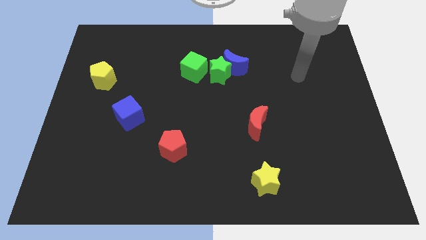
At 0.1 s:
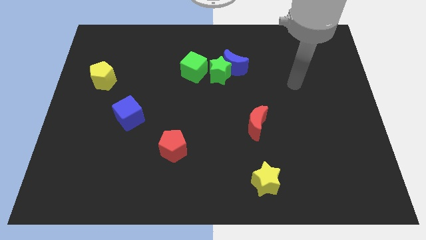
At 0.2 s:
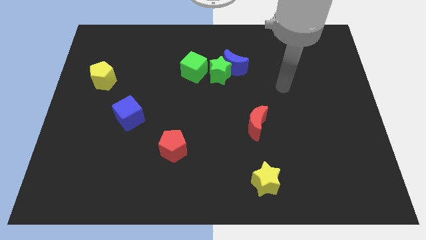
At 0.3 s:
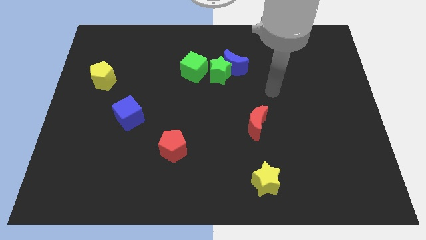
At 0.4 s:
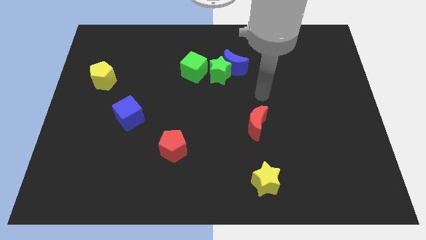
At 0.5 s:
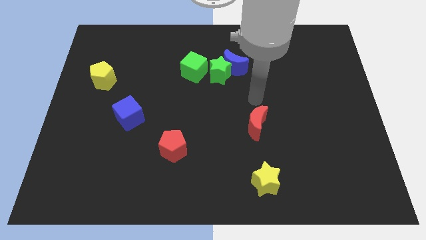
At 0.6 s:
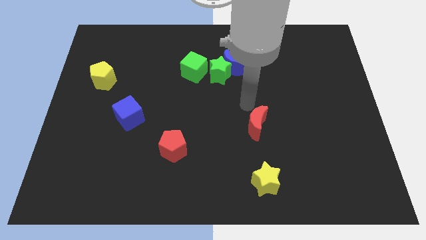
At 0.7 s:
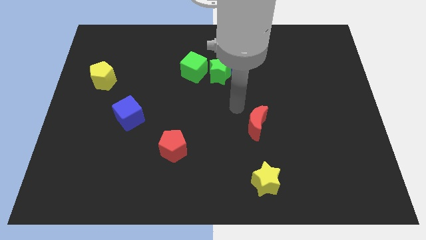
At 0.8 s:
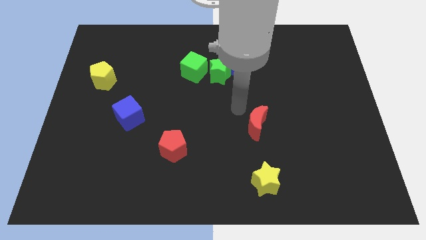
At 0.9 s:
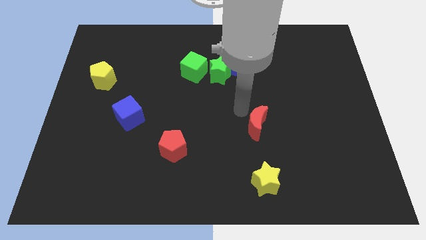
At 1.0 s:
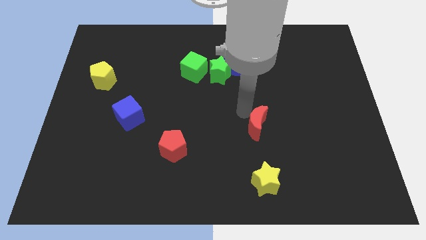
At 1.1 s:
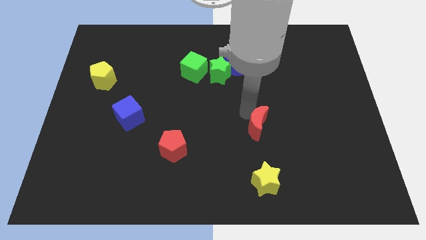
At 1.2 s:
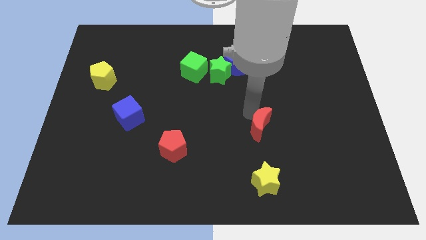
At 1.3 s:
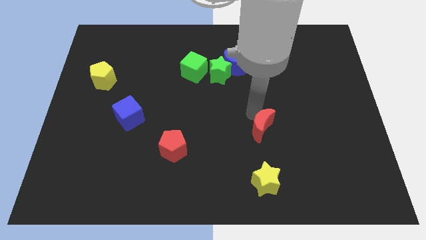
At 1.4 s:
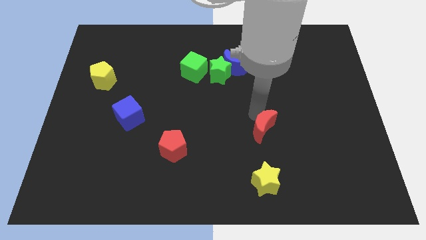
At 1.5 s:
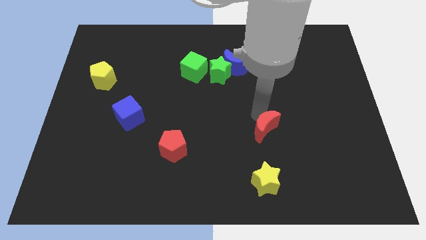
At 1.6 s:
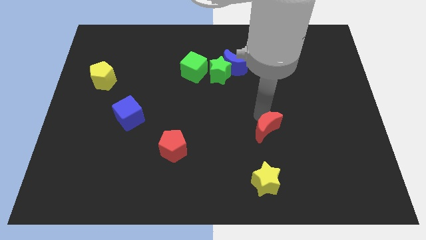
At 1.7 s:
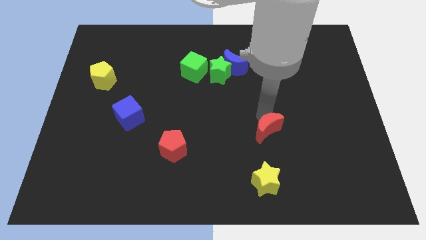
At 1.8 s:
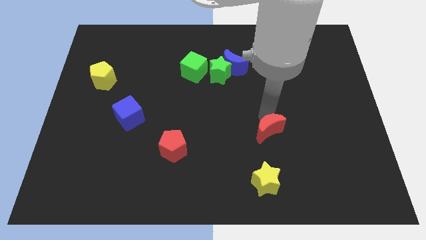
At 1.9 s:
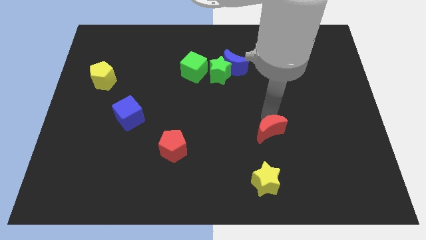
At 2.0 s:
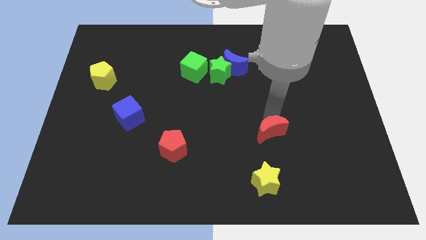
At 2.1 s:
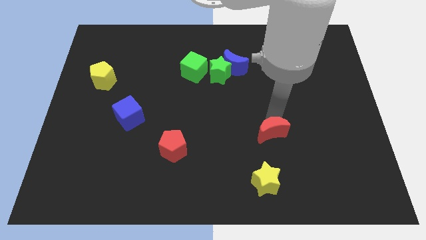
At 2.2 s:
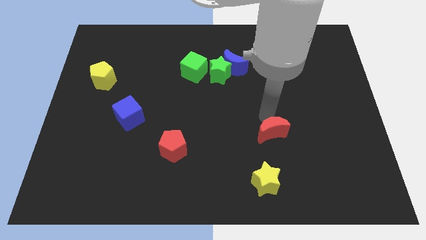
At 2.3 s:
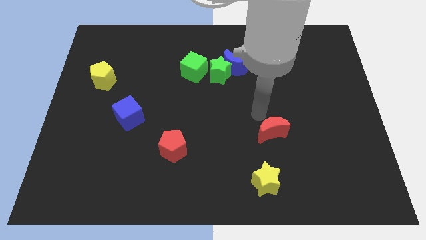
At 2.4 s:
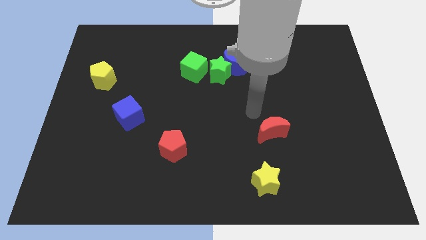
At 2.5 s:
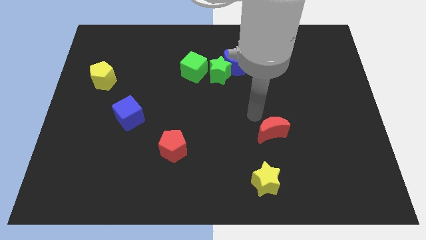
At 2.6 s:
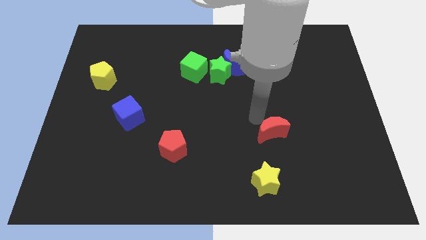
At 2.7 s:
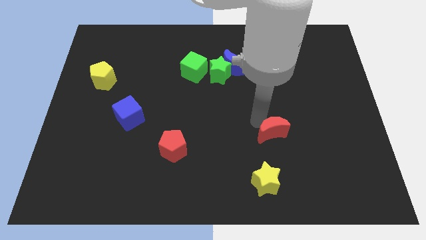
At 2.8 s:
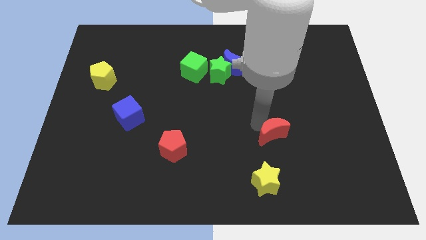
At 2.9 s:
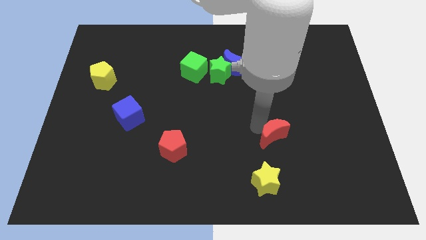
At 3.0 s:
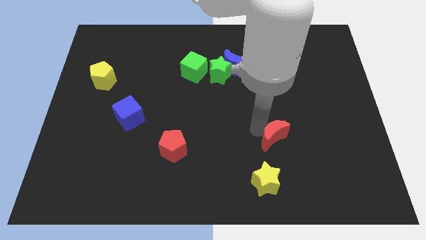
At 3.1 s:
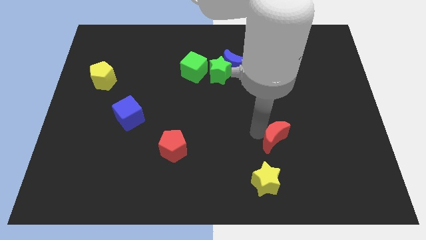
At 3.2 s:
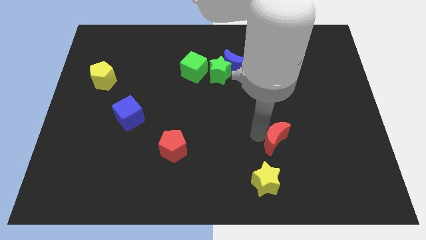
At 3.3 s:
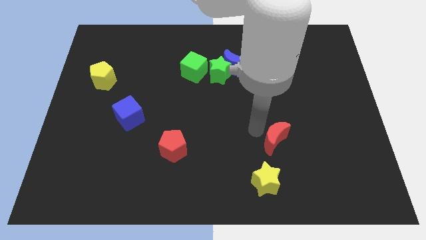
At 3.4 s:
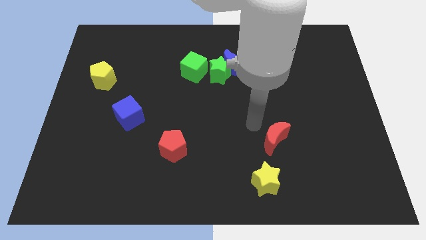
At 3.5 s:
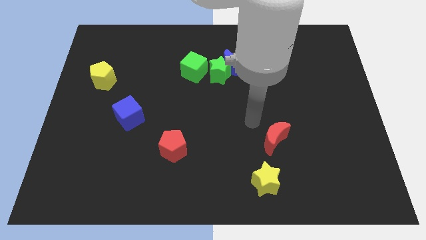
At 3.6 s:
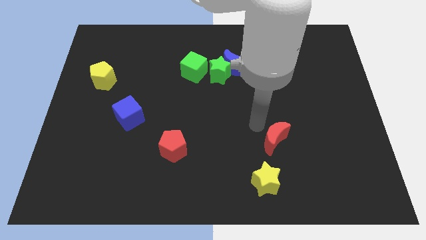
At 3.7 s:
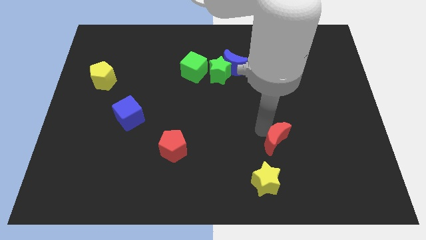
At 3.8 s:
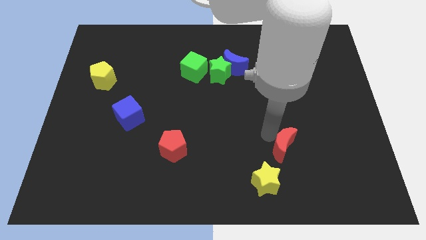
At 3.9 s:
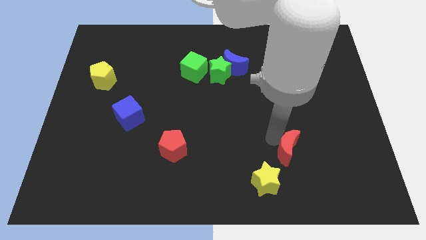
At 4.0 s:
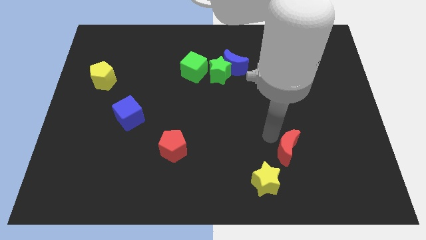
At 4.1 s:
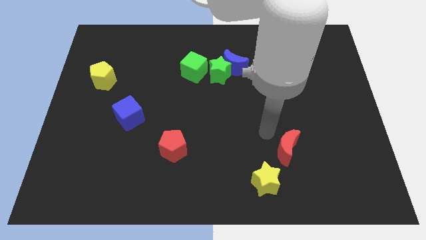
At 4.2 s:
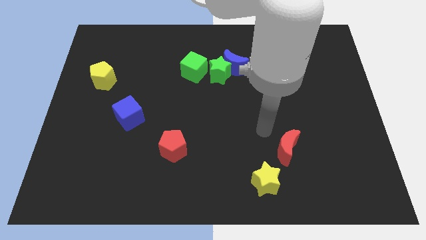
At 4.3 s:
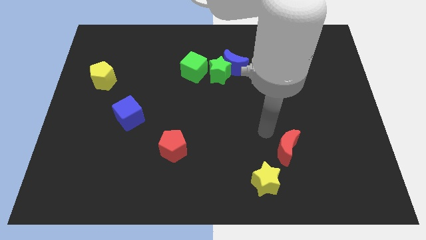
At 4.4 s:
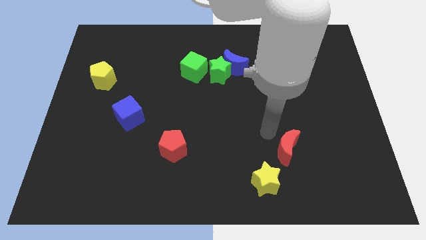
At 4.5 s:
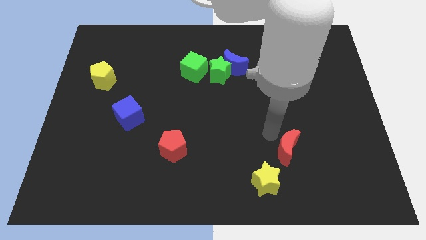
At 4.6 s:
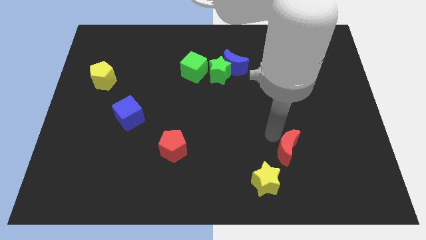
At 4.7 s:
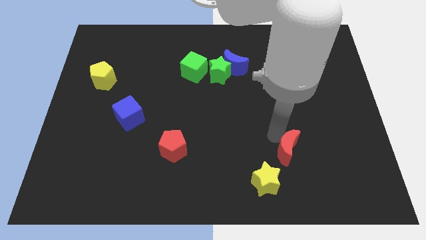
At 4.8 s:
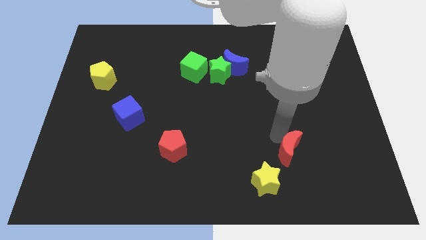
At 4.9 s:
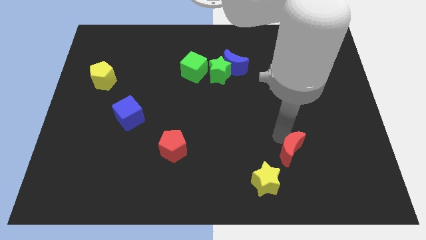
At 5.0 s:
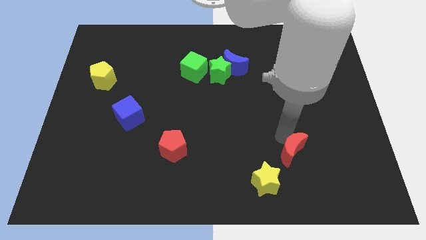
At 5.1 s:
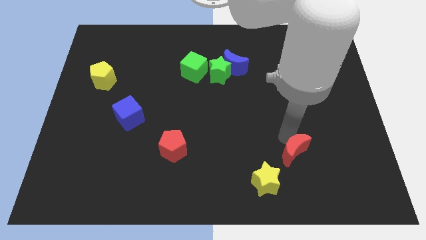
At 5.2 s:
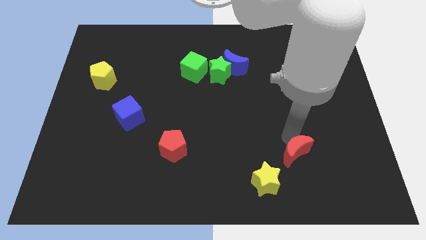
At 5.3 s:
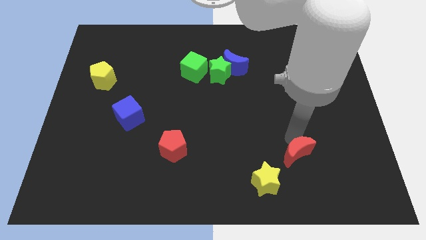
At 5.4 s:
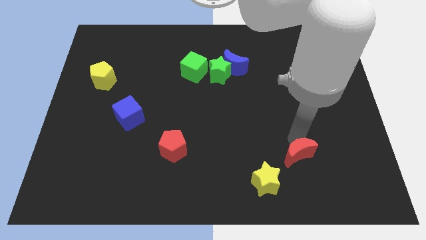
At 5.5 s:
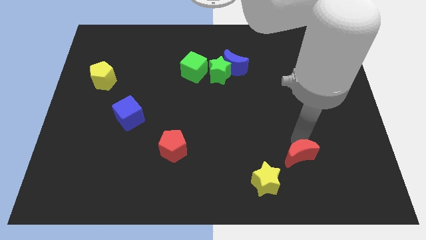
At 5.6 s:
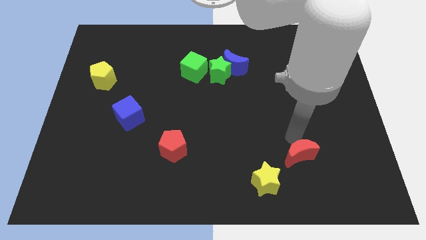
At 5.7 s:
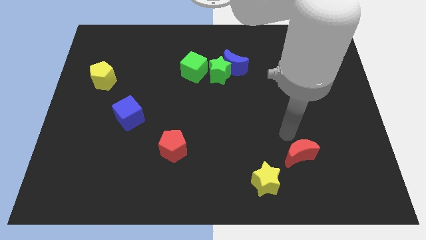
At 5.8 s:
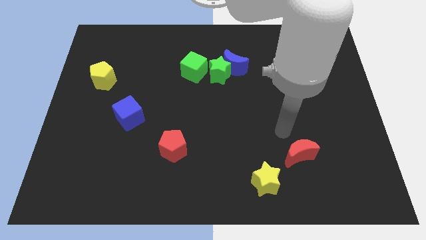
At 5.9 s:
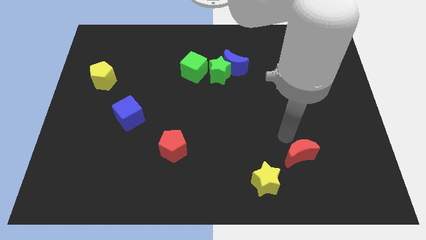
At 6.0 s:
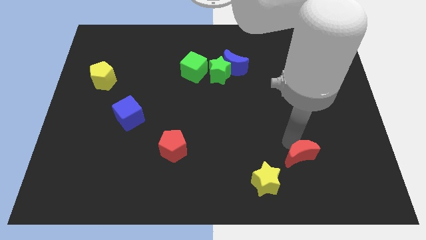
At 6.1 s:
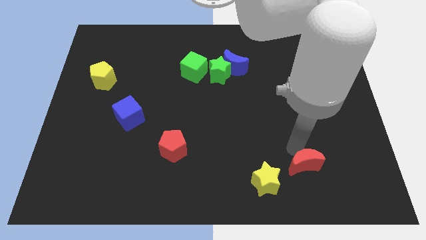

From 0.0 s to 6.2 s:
push the red moon to the right of the yellow star
